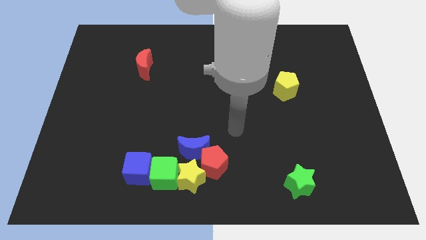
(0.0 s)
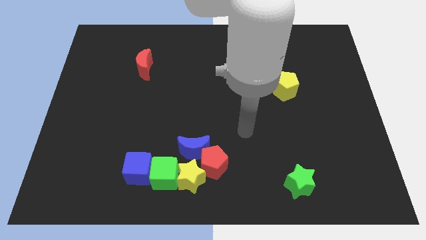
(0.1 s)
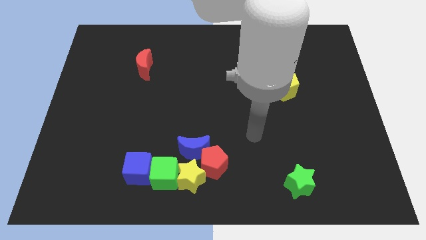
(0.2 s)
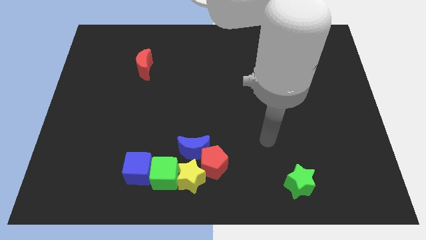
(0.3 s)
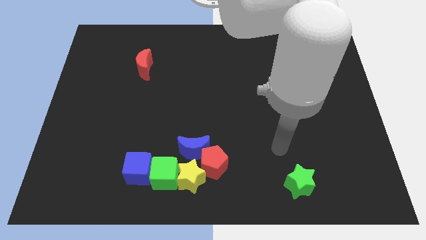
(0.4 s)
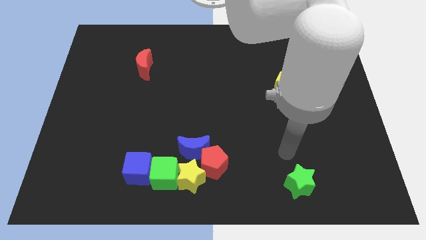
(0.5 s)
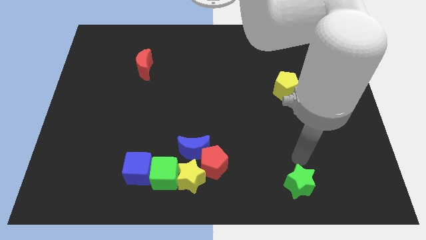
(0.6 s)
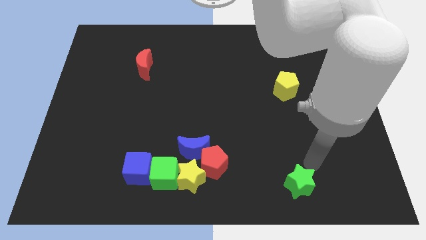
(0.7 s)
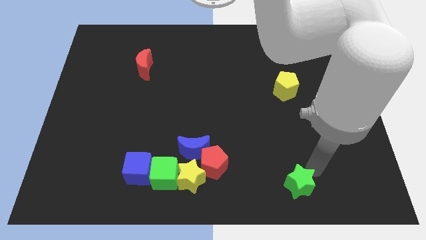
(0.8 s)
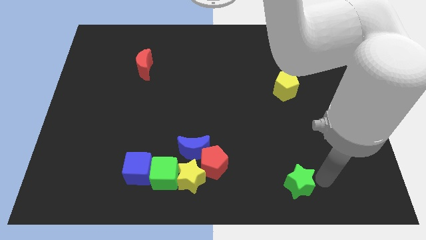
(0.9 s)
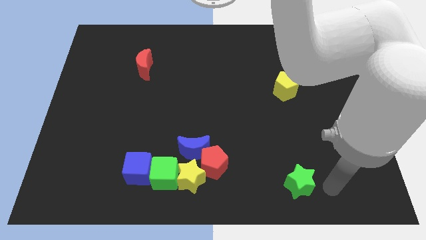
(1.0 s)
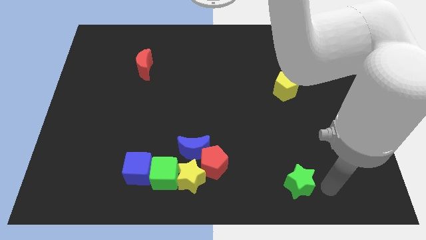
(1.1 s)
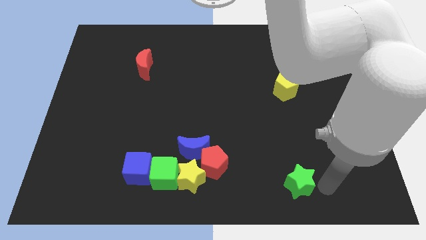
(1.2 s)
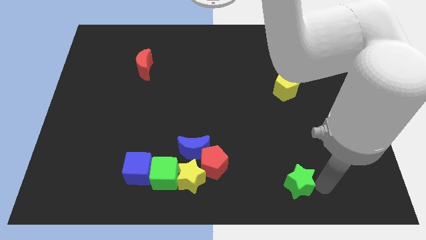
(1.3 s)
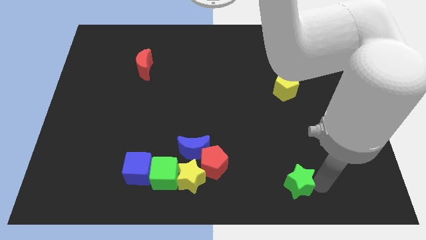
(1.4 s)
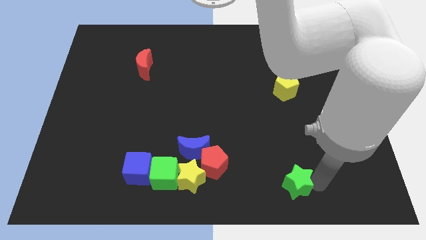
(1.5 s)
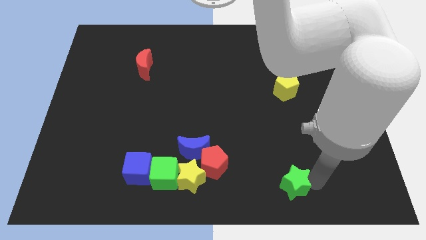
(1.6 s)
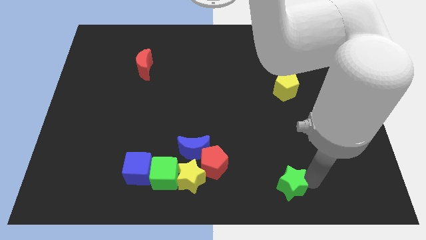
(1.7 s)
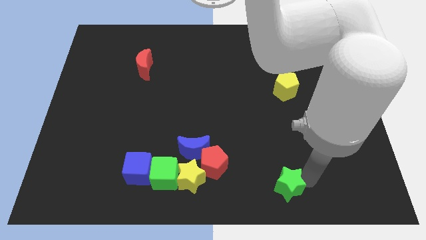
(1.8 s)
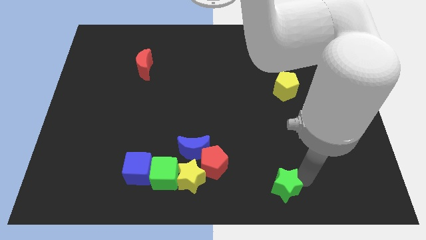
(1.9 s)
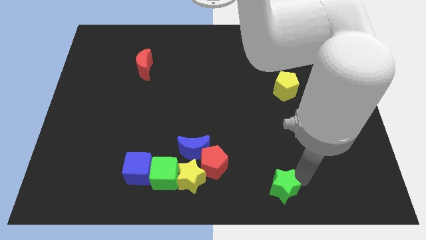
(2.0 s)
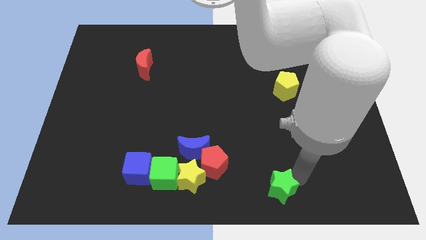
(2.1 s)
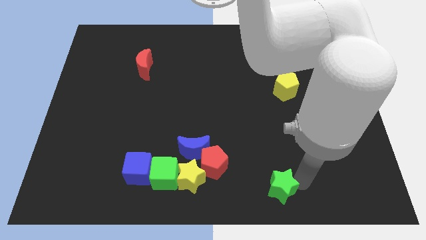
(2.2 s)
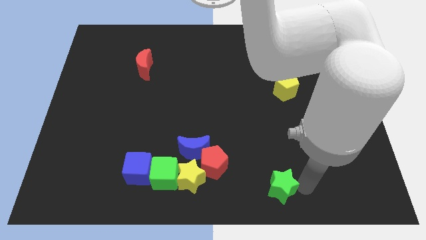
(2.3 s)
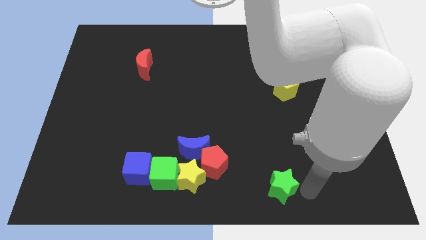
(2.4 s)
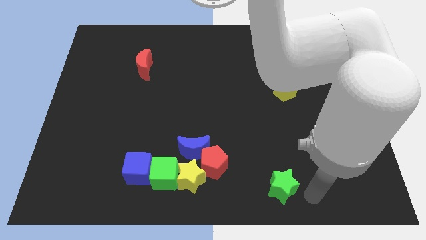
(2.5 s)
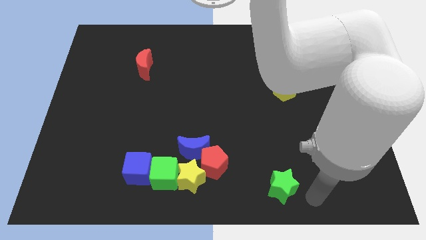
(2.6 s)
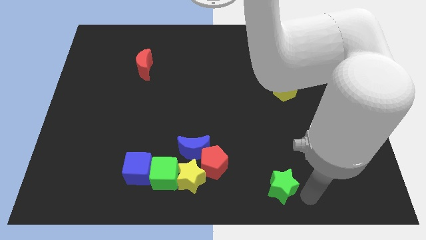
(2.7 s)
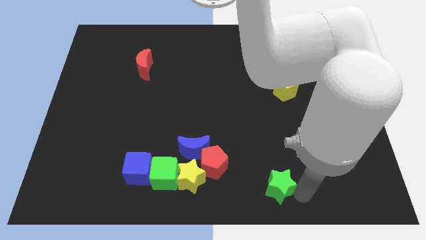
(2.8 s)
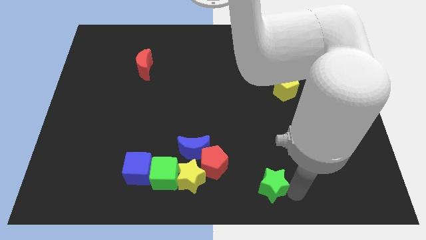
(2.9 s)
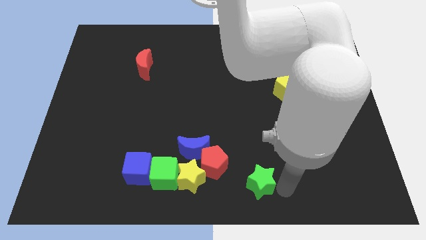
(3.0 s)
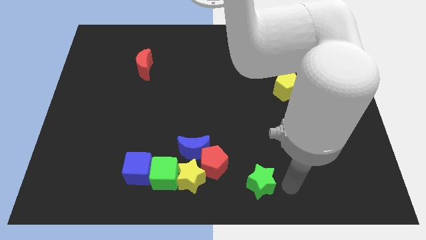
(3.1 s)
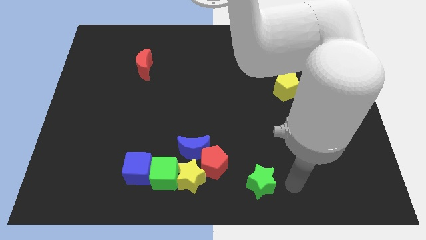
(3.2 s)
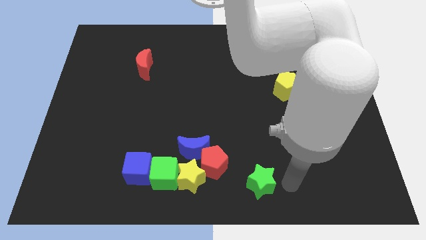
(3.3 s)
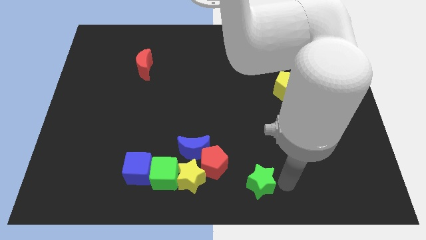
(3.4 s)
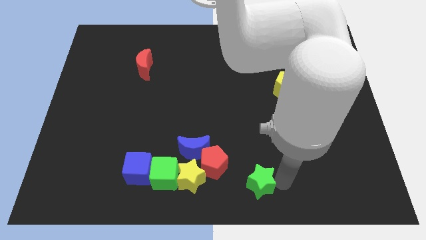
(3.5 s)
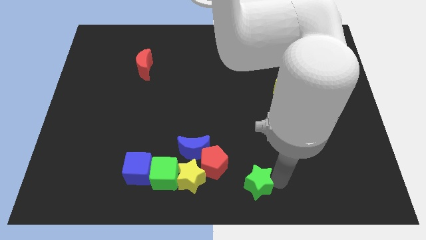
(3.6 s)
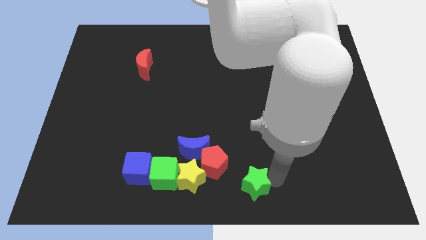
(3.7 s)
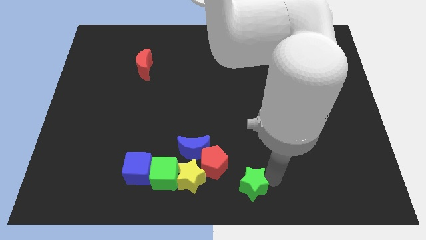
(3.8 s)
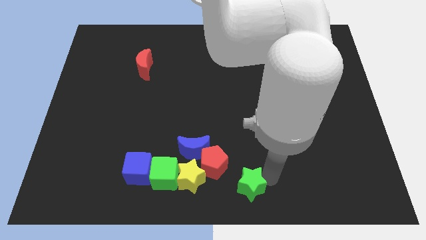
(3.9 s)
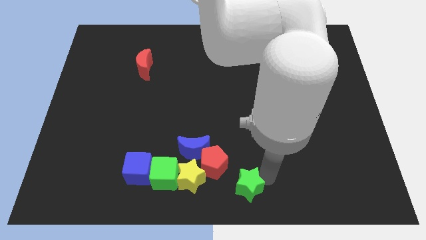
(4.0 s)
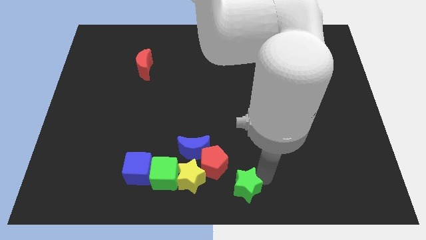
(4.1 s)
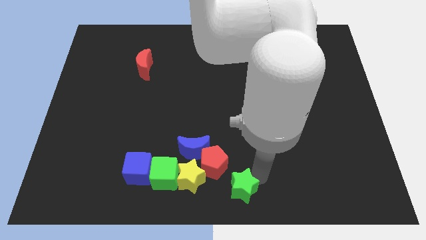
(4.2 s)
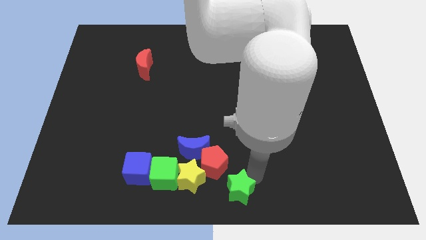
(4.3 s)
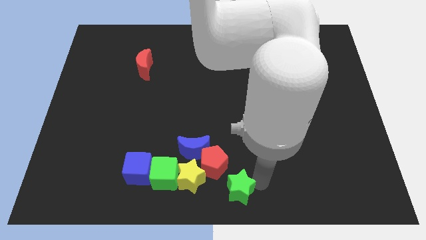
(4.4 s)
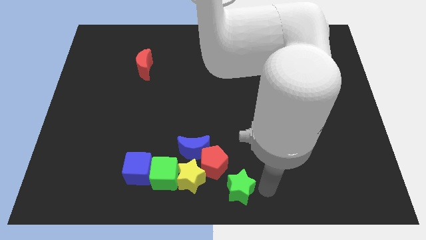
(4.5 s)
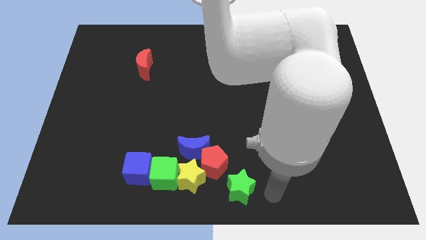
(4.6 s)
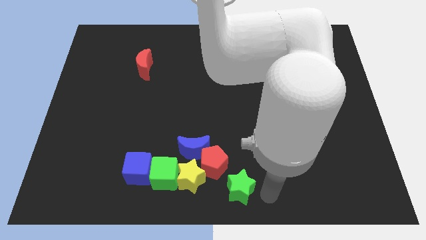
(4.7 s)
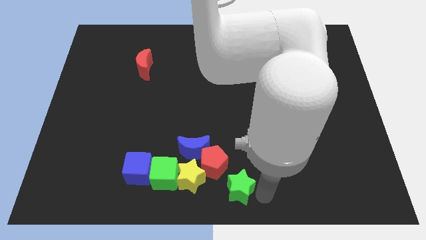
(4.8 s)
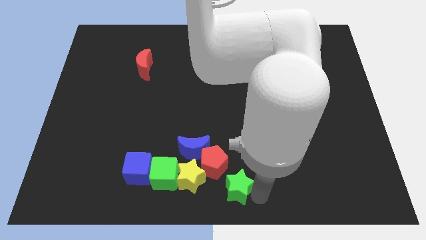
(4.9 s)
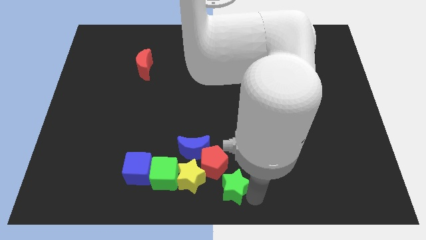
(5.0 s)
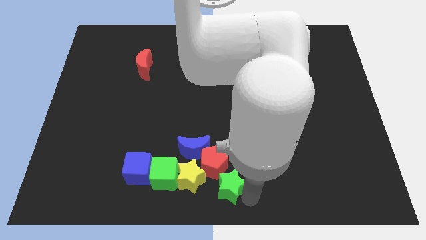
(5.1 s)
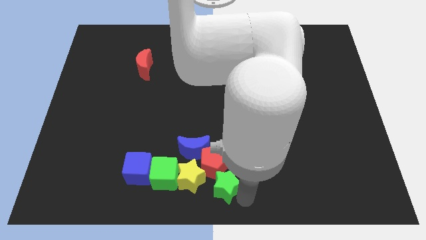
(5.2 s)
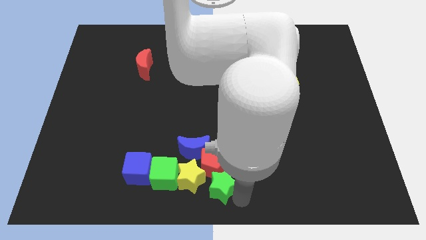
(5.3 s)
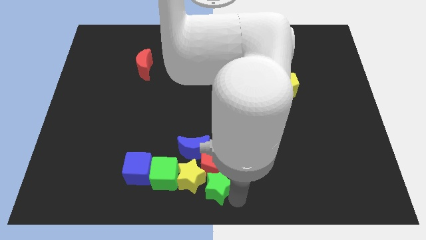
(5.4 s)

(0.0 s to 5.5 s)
put the green star close to the yellow star
